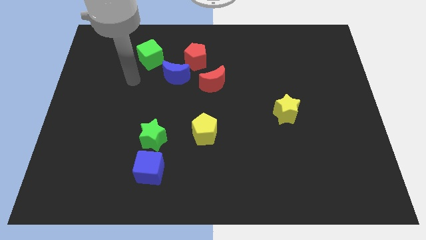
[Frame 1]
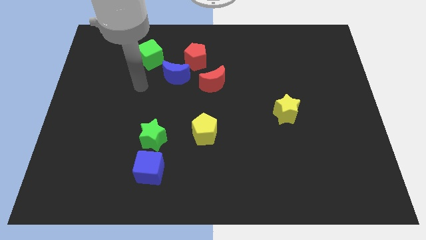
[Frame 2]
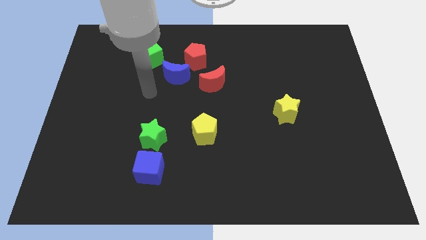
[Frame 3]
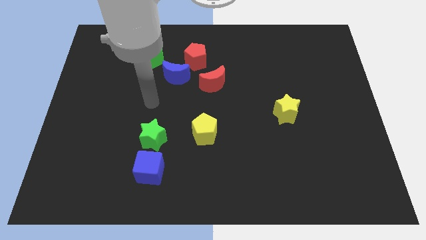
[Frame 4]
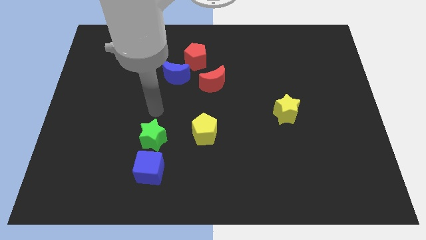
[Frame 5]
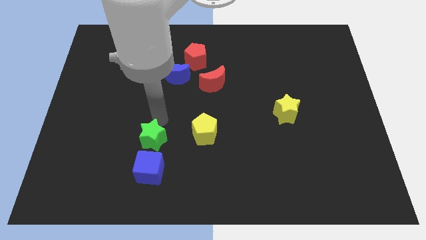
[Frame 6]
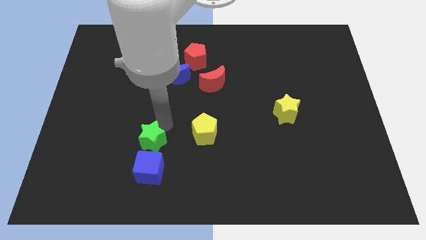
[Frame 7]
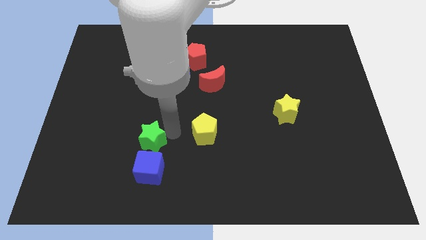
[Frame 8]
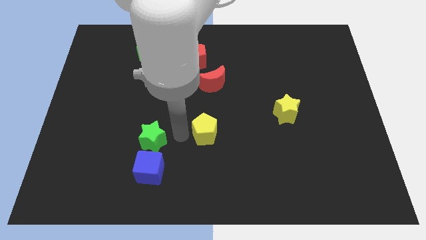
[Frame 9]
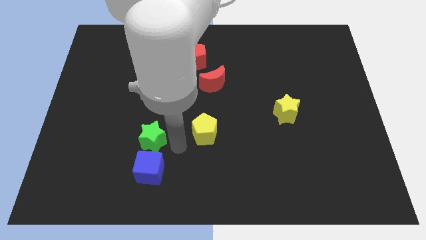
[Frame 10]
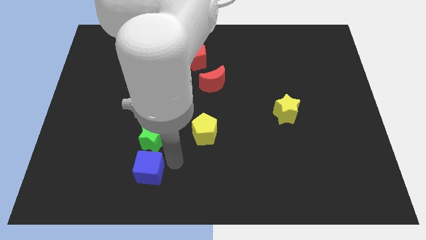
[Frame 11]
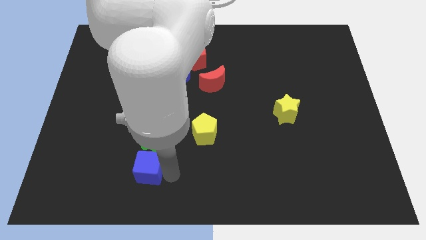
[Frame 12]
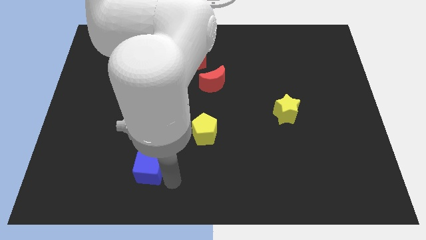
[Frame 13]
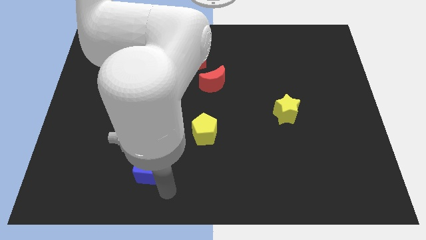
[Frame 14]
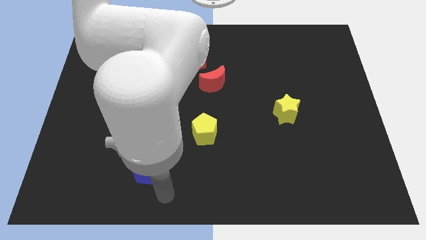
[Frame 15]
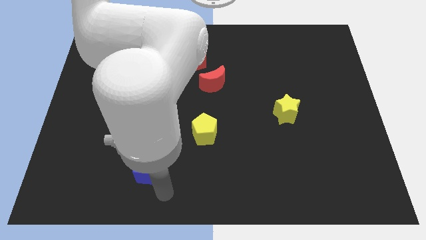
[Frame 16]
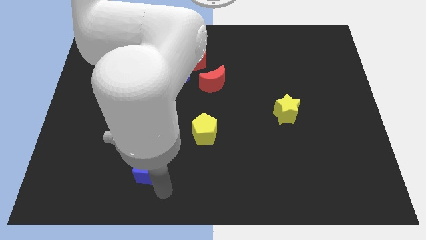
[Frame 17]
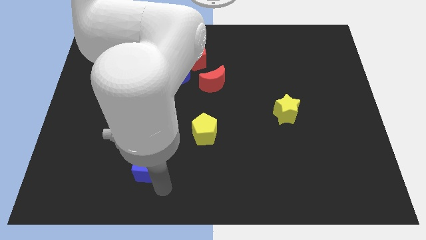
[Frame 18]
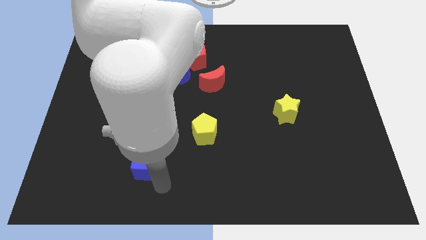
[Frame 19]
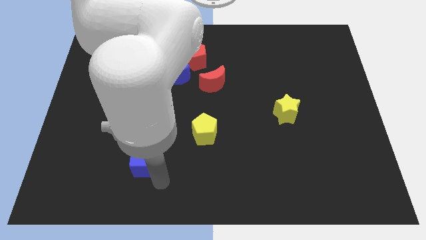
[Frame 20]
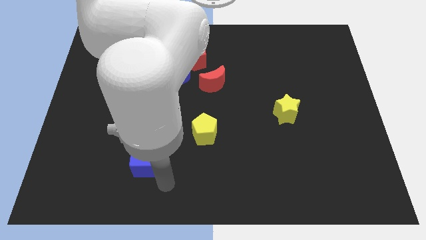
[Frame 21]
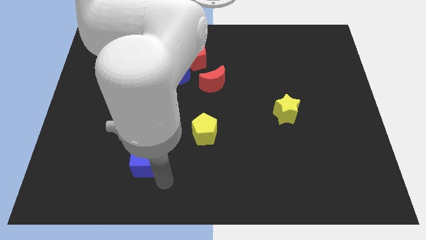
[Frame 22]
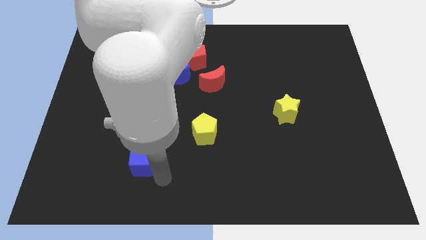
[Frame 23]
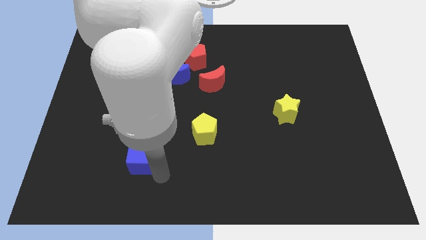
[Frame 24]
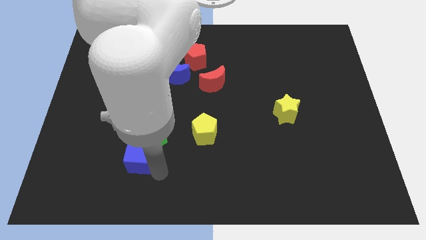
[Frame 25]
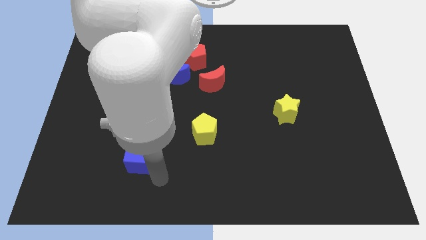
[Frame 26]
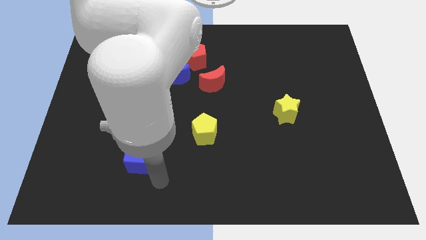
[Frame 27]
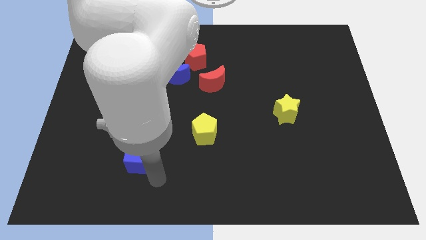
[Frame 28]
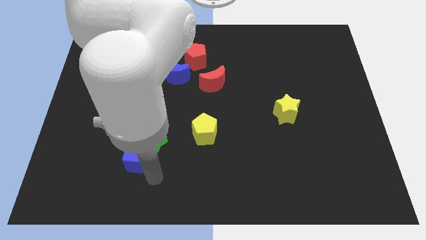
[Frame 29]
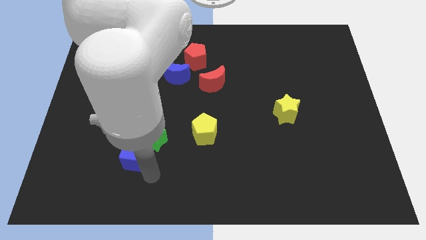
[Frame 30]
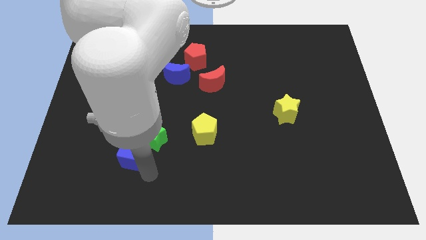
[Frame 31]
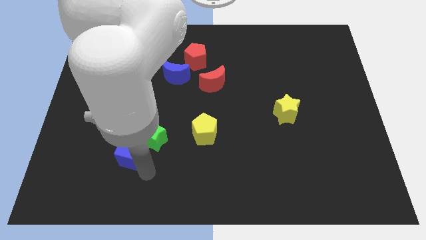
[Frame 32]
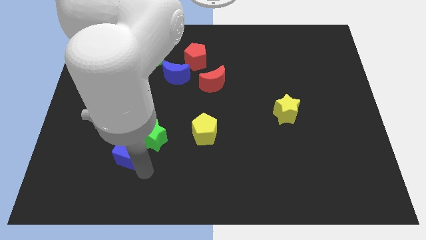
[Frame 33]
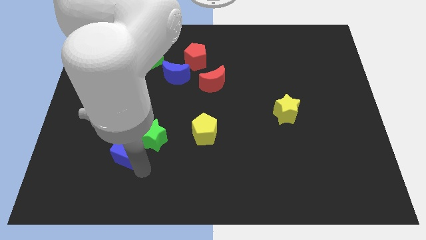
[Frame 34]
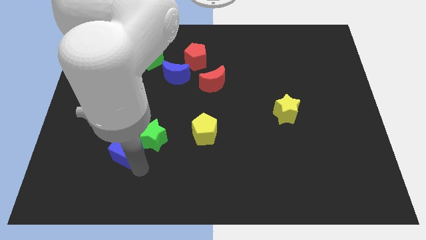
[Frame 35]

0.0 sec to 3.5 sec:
slightly move the blue cube up and left

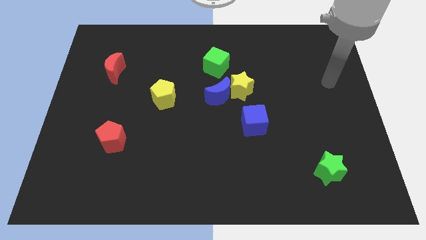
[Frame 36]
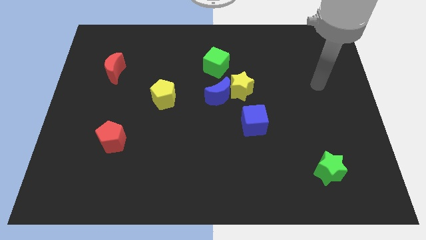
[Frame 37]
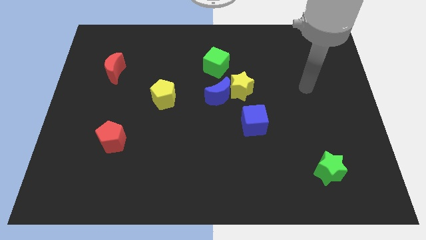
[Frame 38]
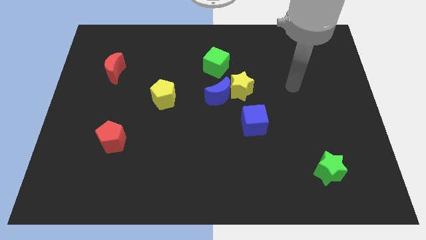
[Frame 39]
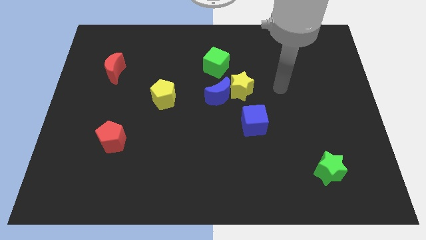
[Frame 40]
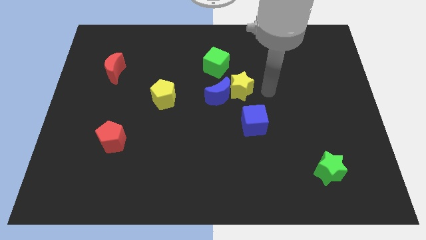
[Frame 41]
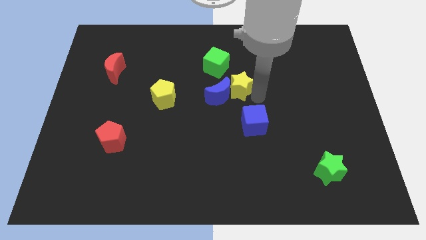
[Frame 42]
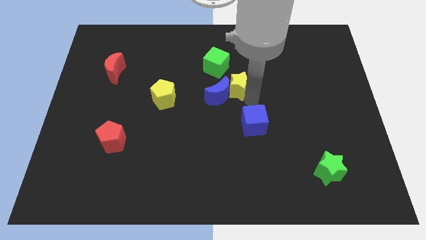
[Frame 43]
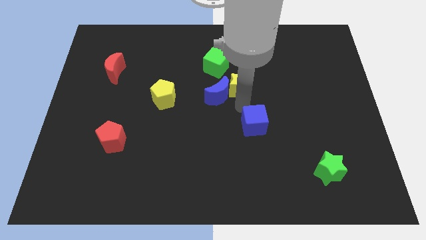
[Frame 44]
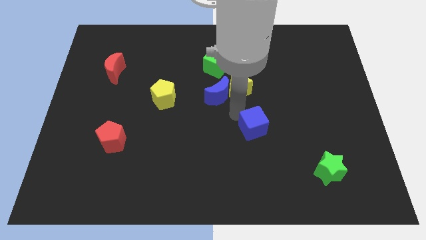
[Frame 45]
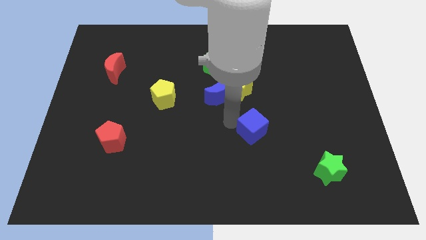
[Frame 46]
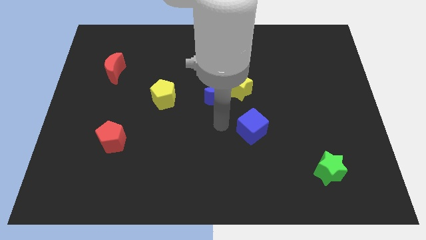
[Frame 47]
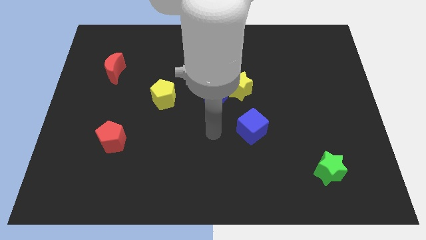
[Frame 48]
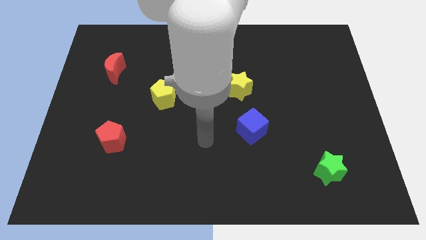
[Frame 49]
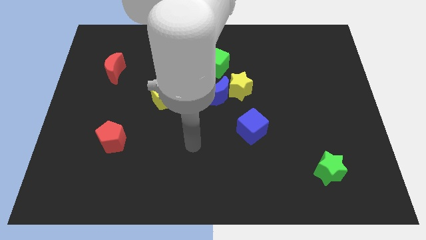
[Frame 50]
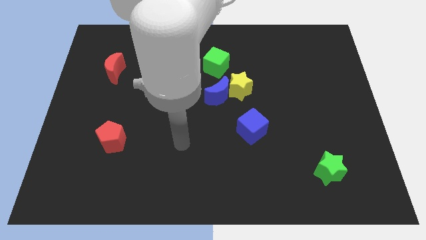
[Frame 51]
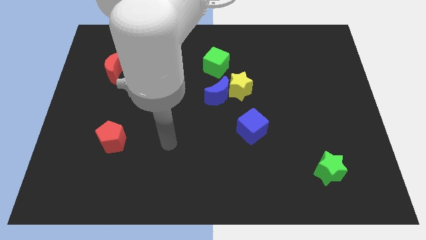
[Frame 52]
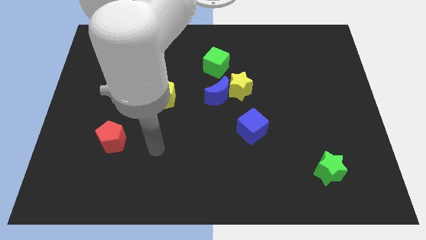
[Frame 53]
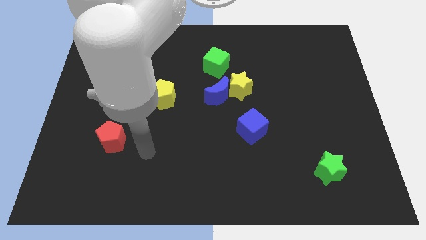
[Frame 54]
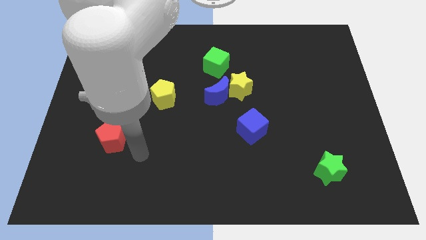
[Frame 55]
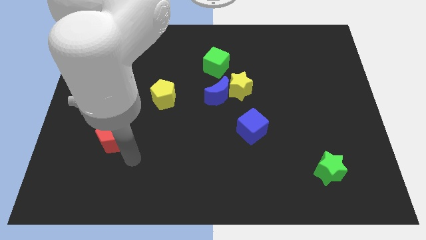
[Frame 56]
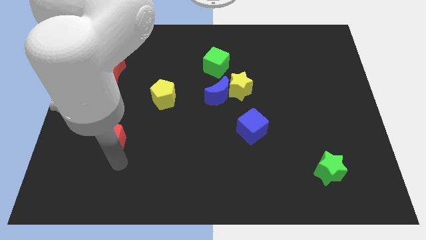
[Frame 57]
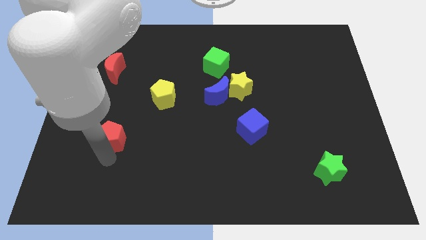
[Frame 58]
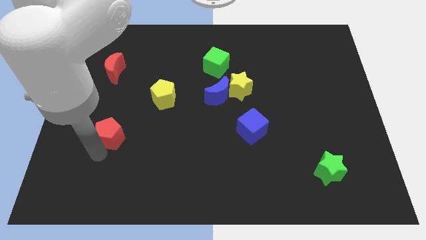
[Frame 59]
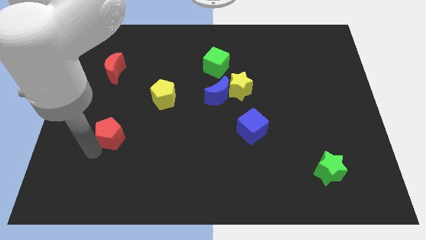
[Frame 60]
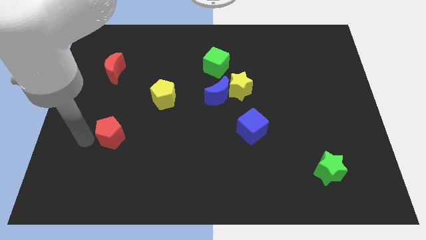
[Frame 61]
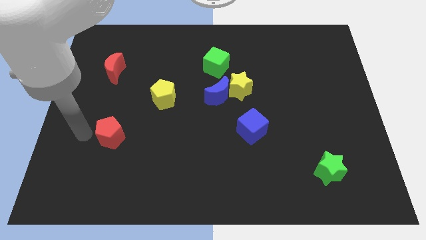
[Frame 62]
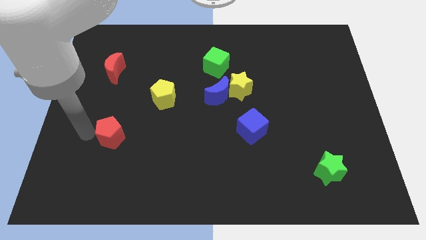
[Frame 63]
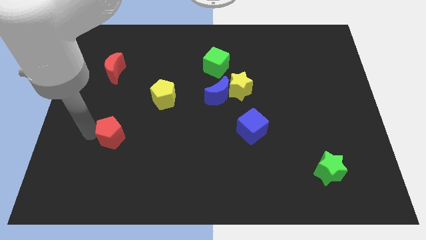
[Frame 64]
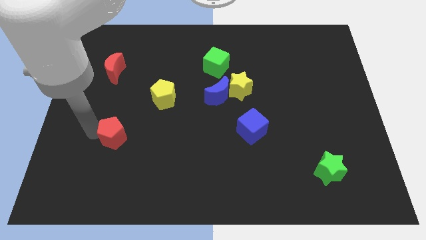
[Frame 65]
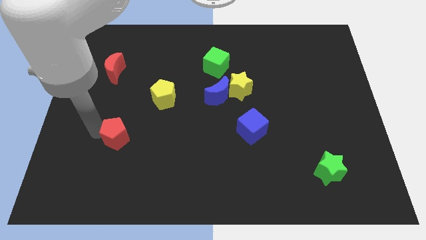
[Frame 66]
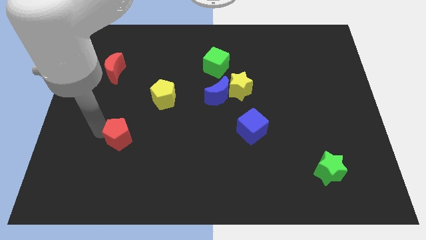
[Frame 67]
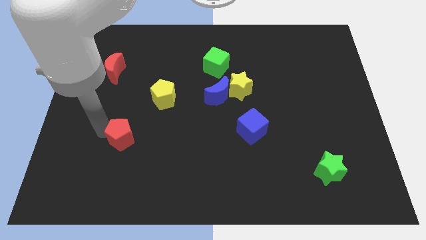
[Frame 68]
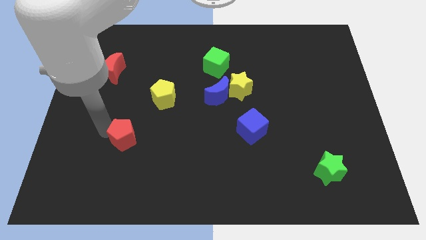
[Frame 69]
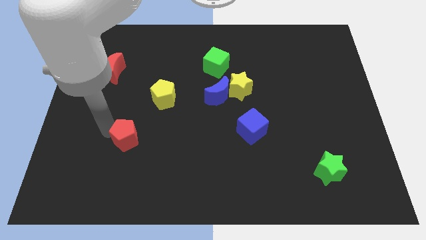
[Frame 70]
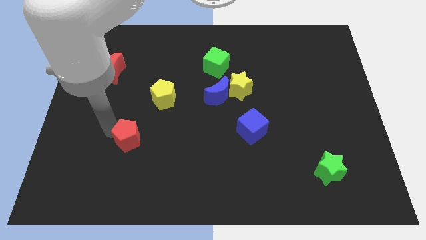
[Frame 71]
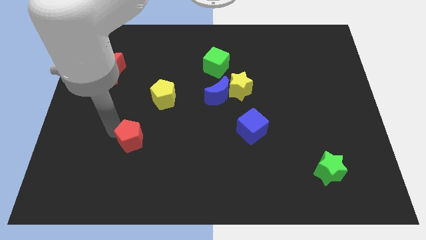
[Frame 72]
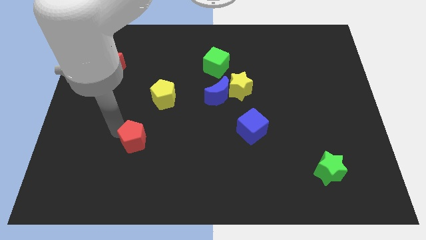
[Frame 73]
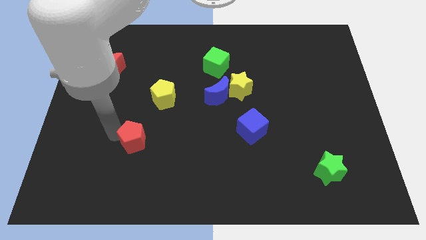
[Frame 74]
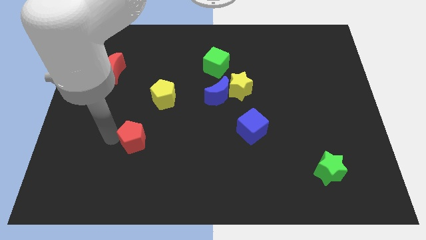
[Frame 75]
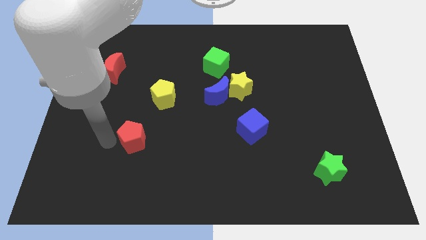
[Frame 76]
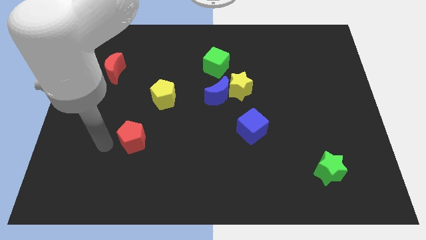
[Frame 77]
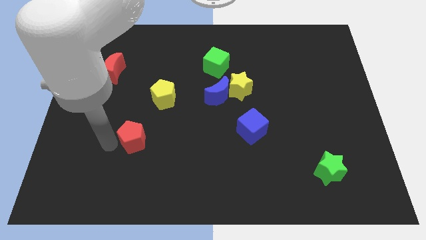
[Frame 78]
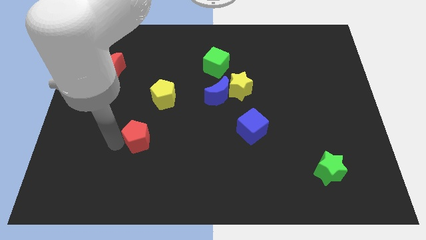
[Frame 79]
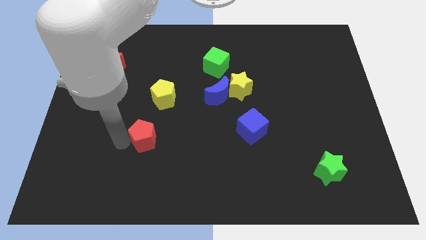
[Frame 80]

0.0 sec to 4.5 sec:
push the red pentagon right somewhat

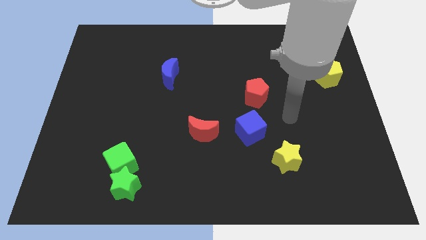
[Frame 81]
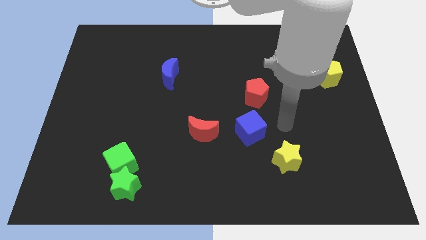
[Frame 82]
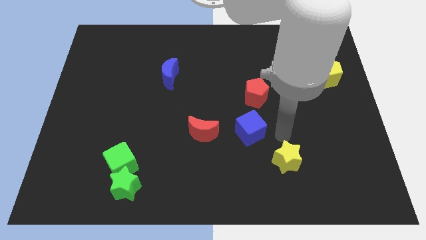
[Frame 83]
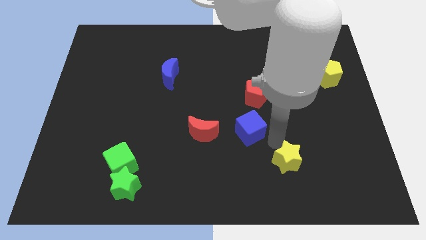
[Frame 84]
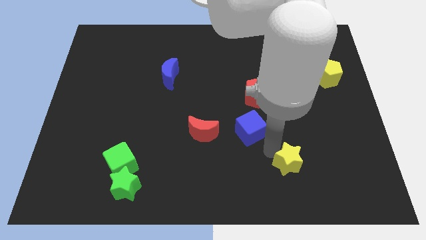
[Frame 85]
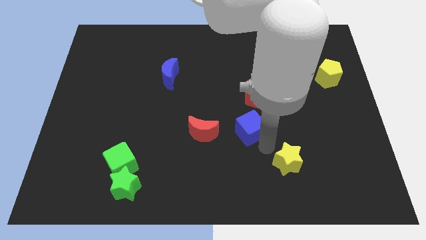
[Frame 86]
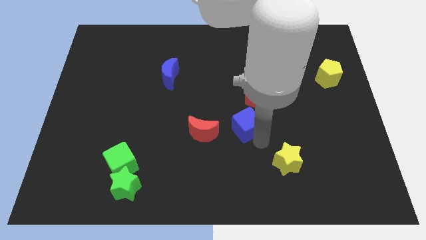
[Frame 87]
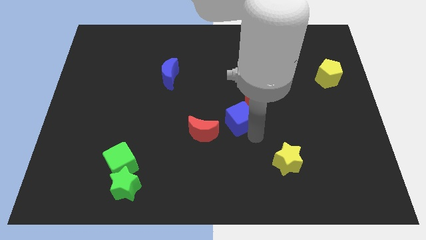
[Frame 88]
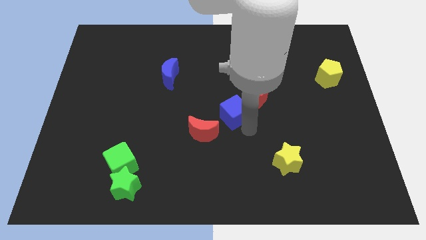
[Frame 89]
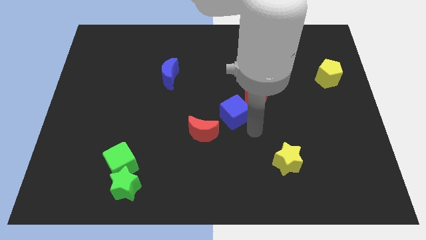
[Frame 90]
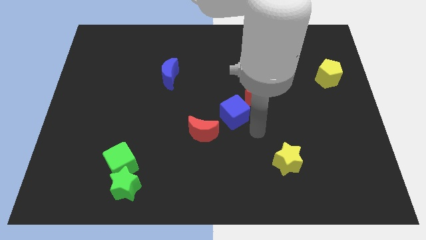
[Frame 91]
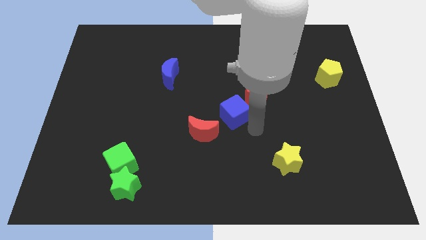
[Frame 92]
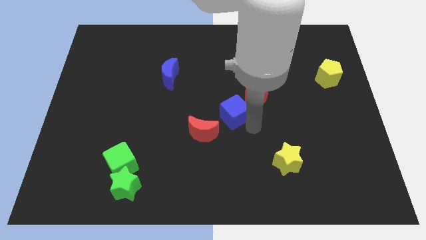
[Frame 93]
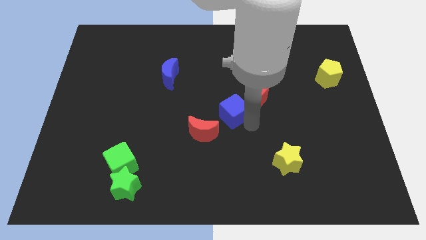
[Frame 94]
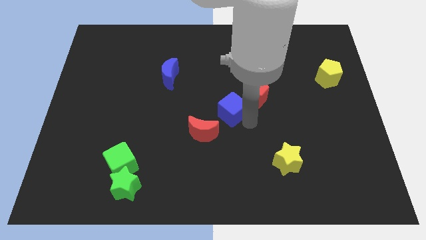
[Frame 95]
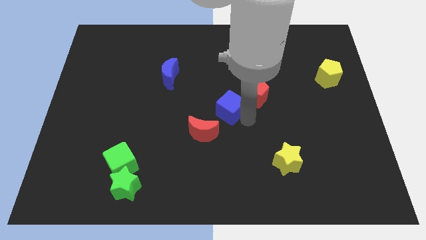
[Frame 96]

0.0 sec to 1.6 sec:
push the blue cube somewhat up and then to the left
